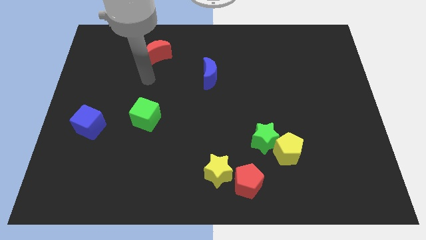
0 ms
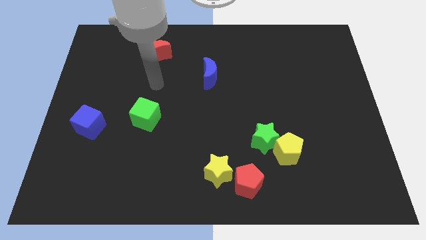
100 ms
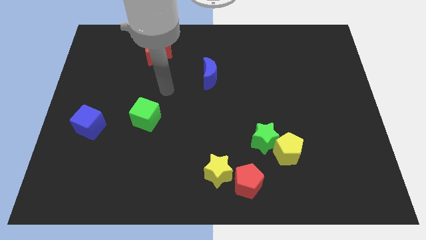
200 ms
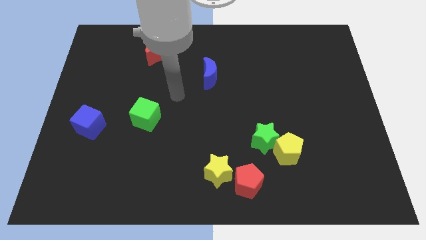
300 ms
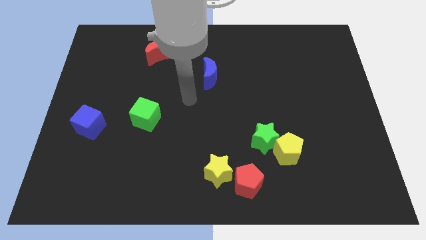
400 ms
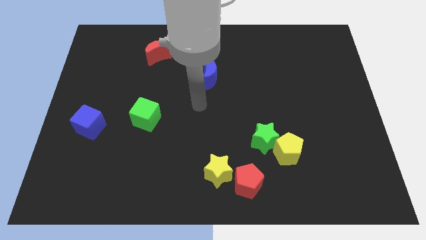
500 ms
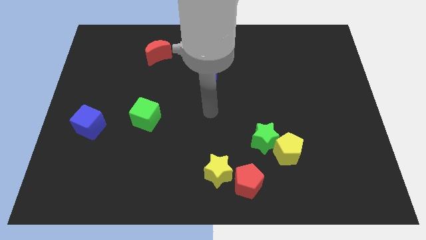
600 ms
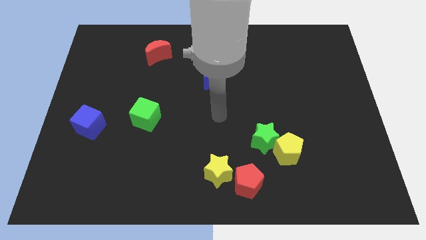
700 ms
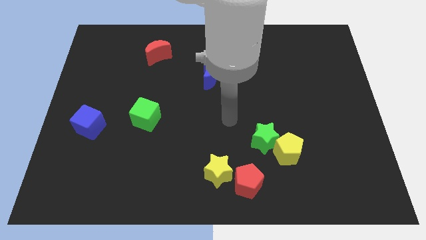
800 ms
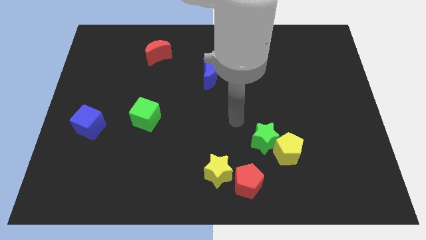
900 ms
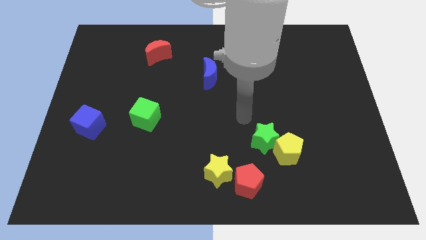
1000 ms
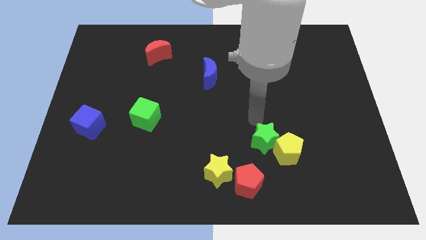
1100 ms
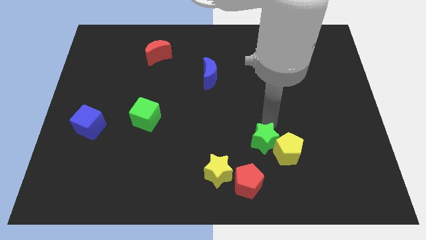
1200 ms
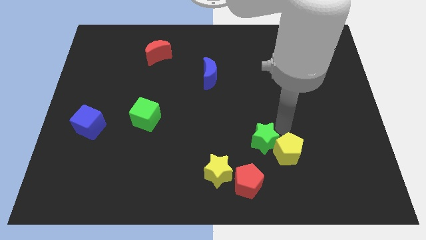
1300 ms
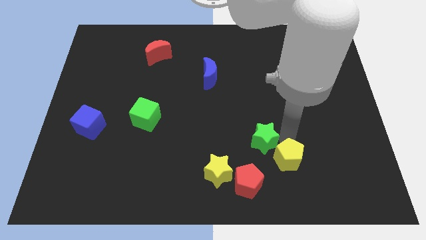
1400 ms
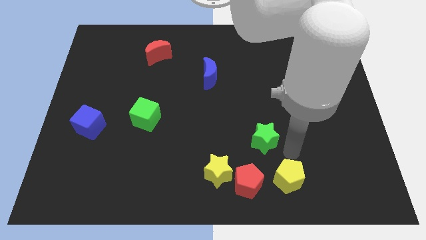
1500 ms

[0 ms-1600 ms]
move the green star away from the yellow pentagon

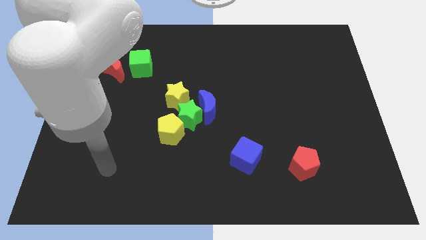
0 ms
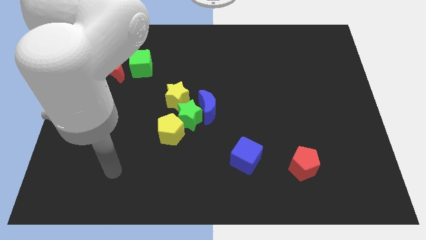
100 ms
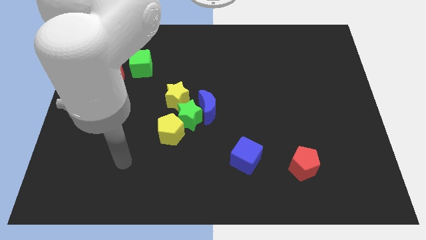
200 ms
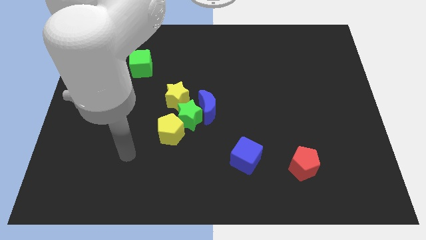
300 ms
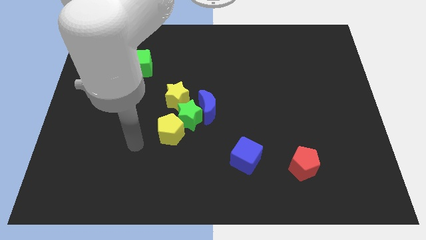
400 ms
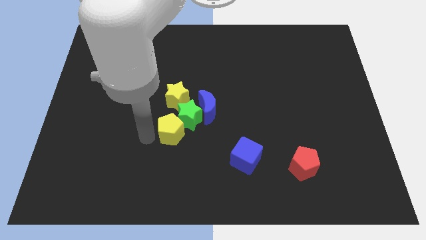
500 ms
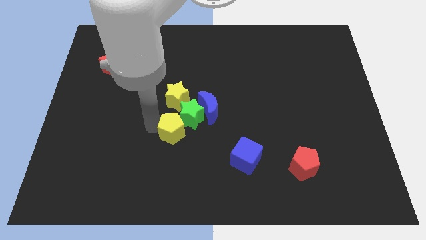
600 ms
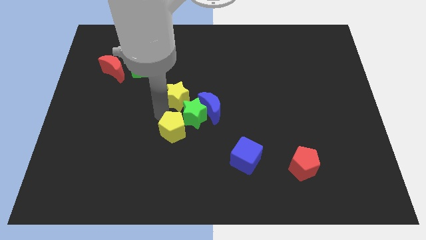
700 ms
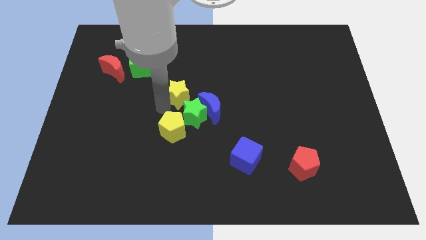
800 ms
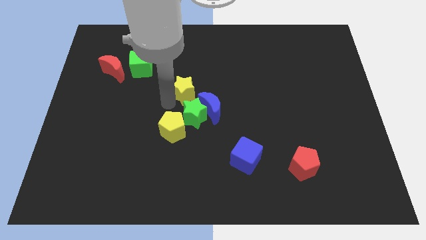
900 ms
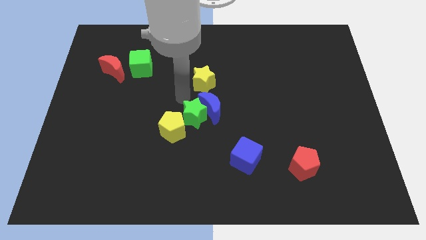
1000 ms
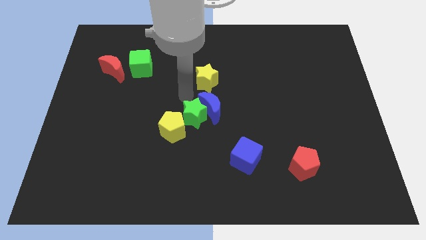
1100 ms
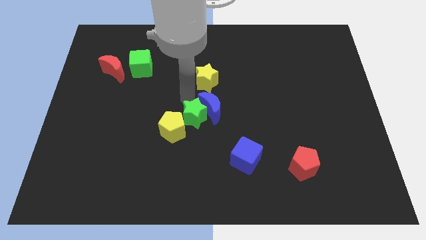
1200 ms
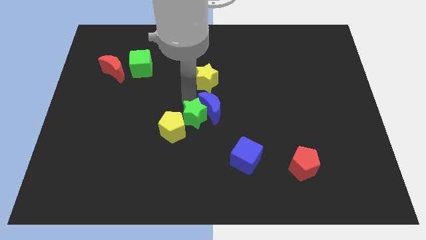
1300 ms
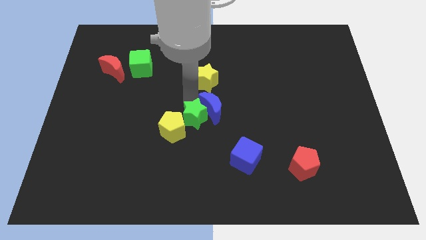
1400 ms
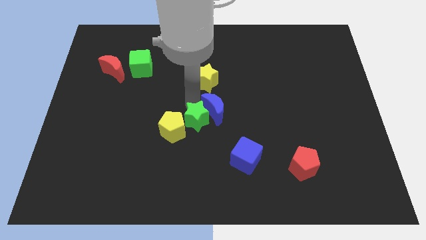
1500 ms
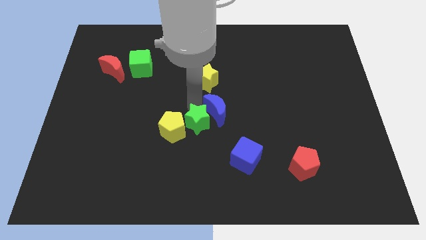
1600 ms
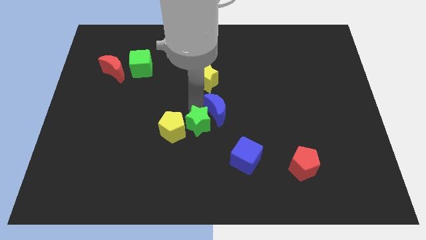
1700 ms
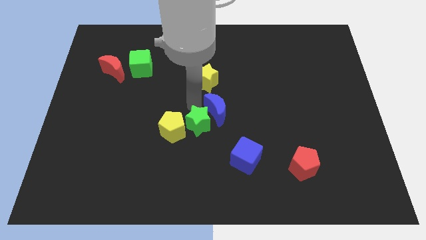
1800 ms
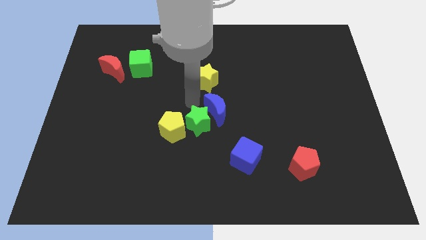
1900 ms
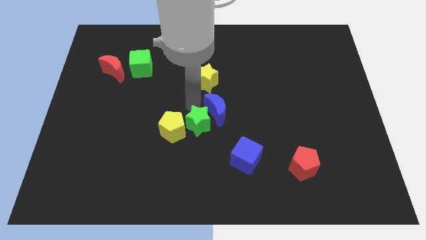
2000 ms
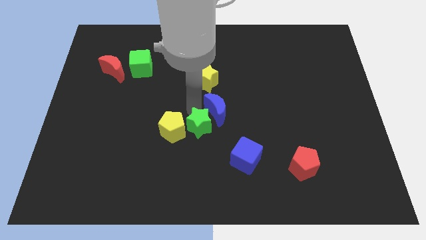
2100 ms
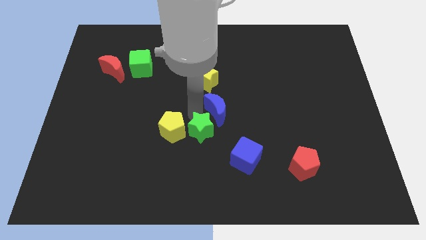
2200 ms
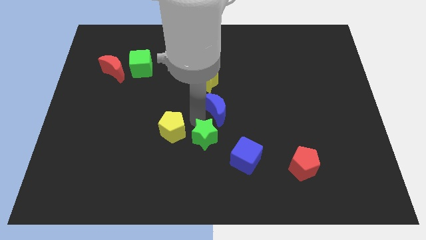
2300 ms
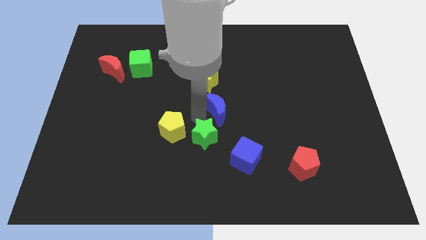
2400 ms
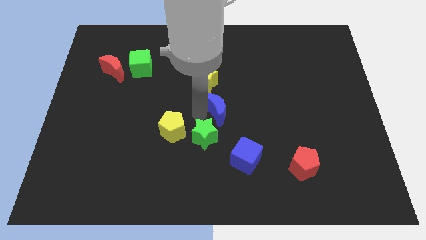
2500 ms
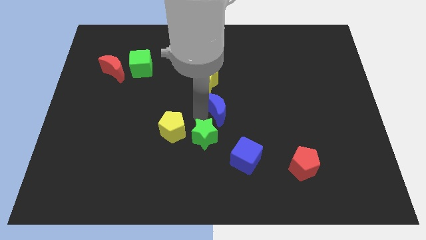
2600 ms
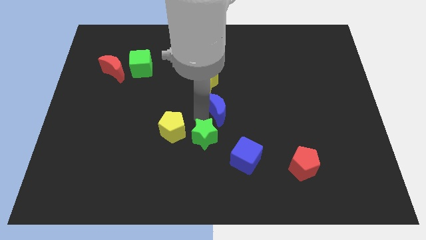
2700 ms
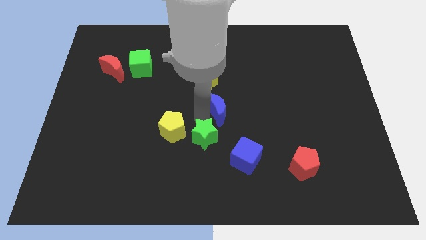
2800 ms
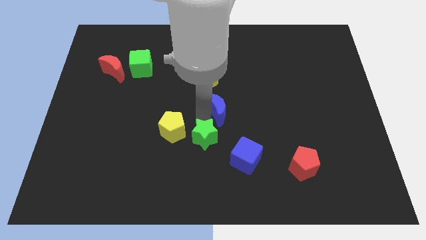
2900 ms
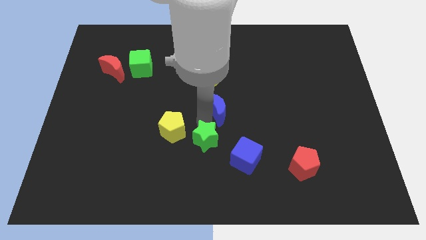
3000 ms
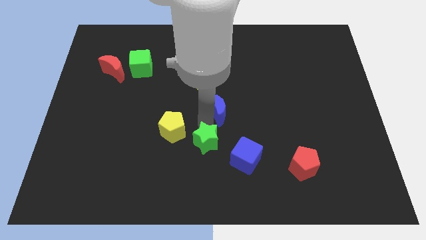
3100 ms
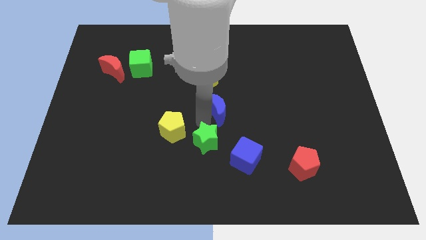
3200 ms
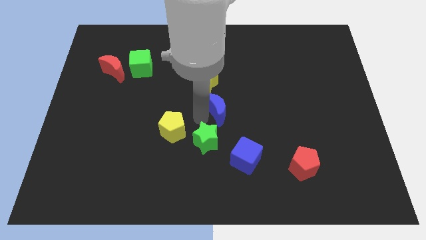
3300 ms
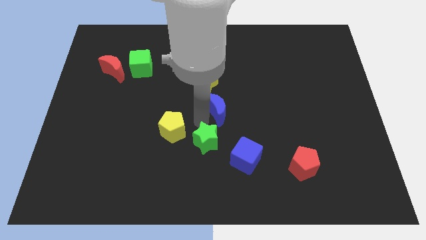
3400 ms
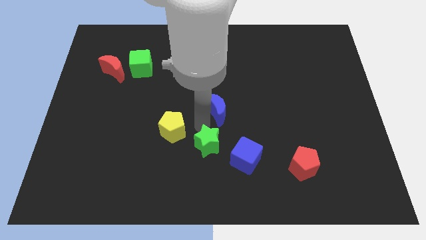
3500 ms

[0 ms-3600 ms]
move the green star away from the blue moon, yellow pentagon, and yellow star

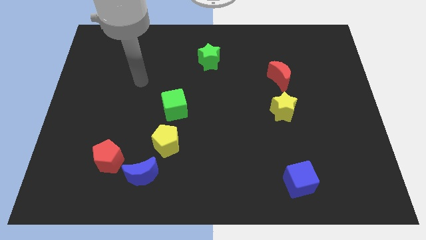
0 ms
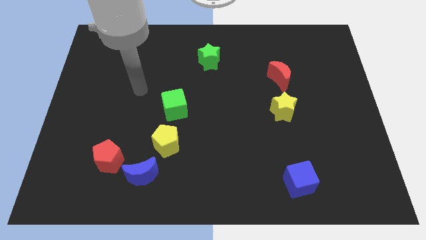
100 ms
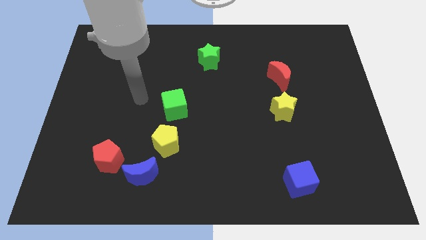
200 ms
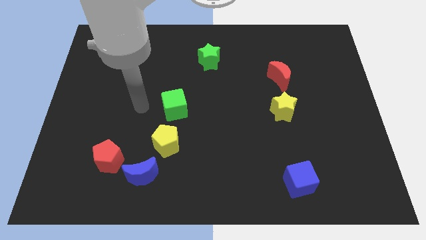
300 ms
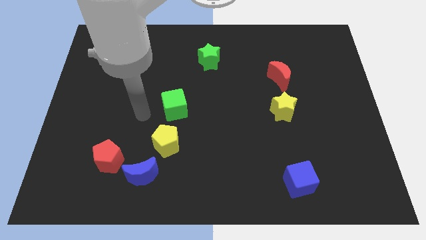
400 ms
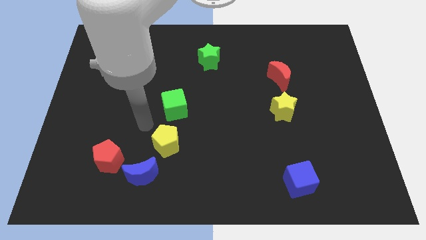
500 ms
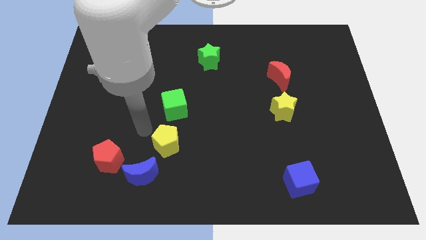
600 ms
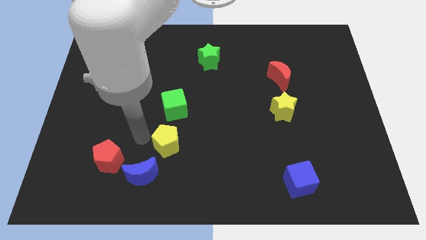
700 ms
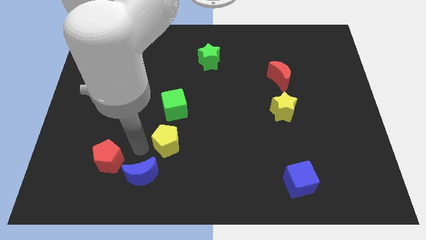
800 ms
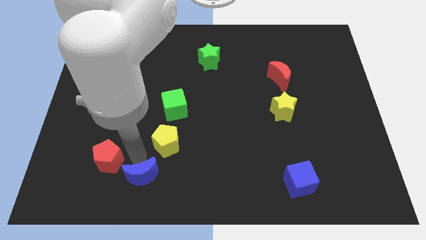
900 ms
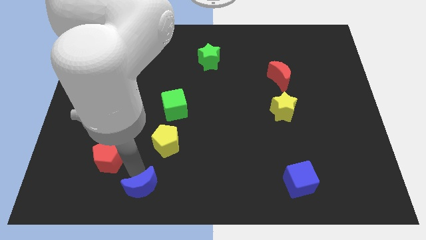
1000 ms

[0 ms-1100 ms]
separate the red pentagon from the blue moon

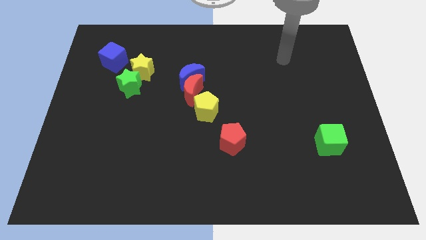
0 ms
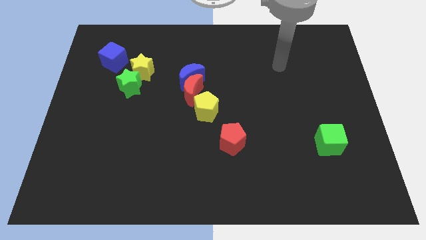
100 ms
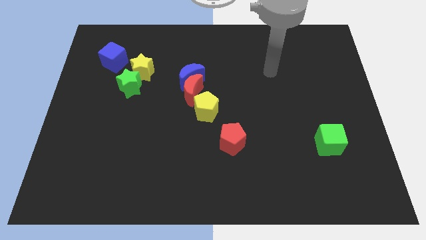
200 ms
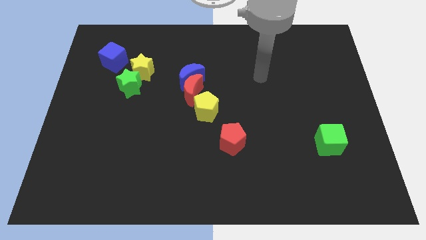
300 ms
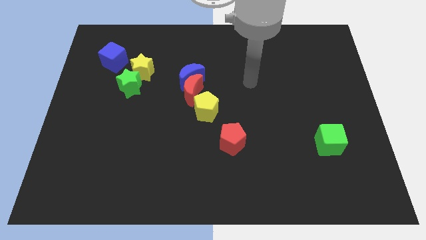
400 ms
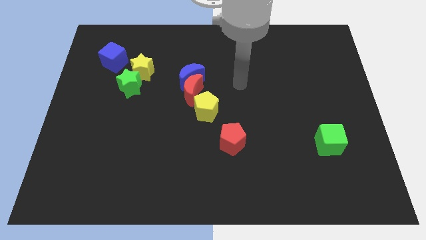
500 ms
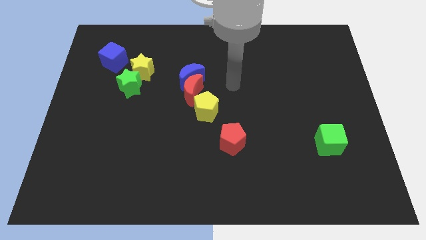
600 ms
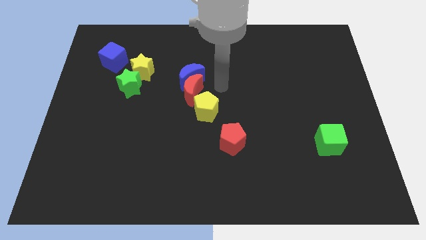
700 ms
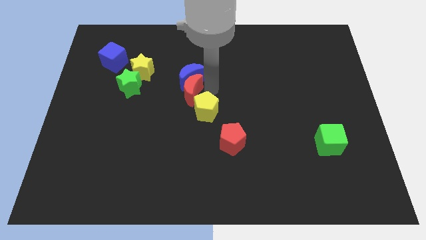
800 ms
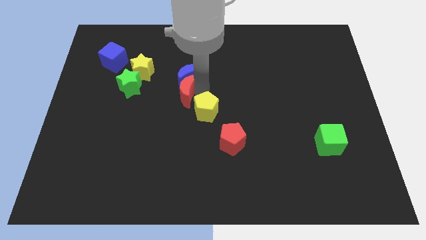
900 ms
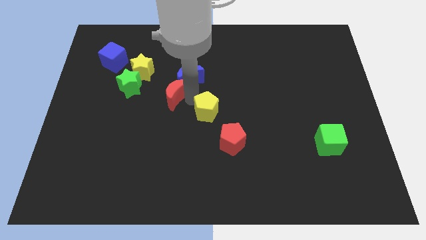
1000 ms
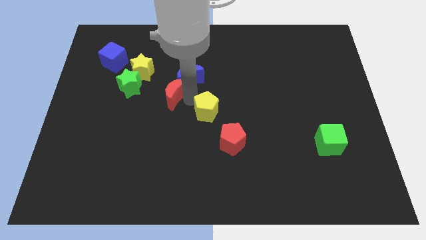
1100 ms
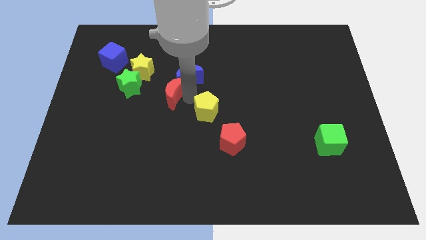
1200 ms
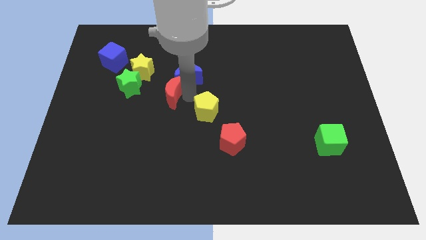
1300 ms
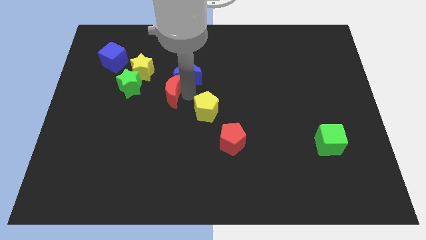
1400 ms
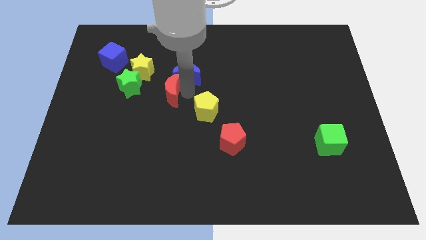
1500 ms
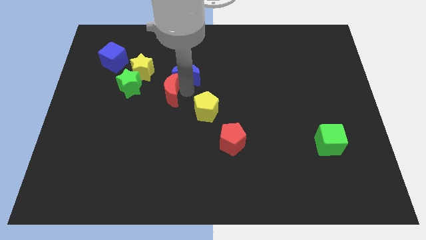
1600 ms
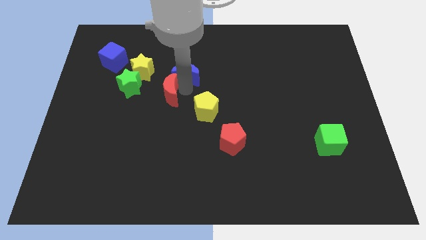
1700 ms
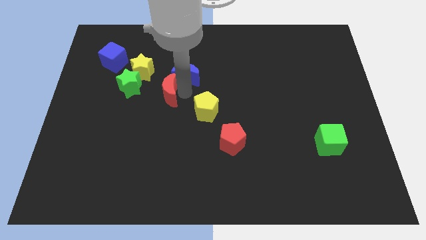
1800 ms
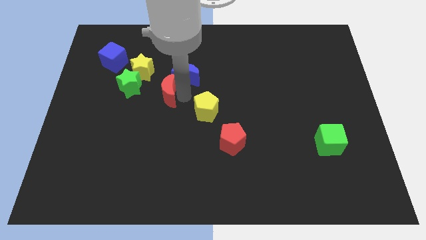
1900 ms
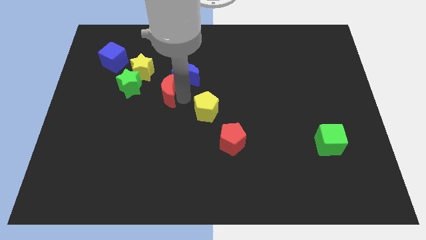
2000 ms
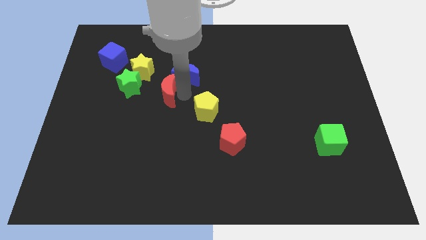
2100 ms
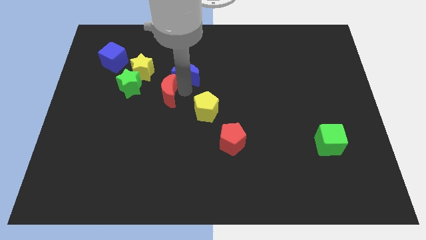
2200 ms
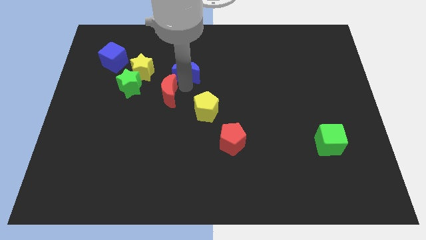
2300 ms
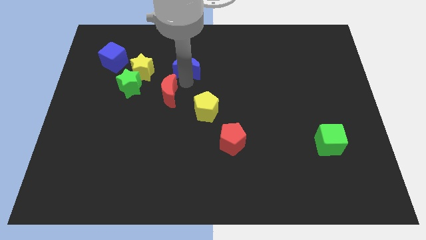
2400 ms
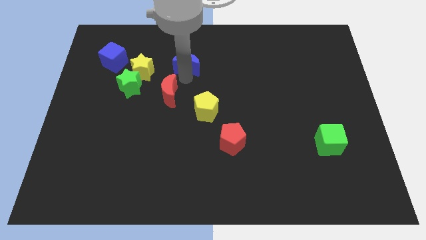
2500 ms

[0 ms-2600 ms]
move the blue moon away from the red moon

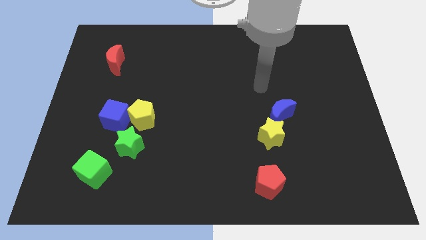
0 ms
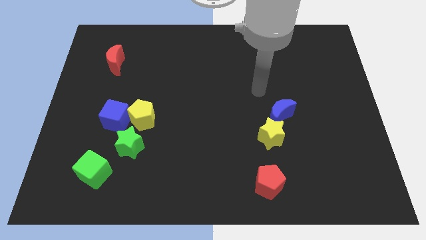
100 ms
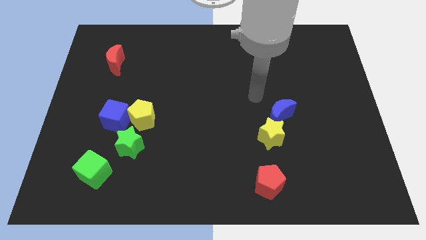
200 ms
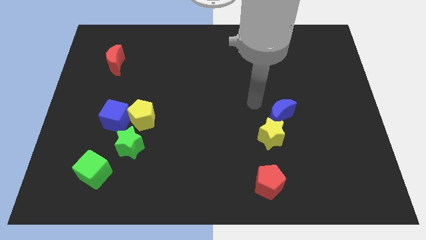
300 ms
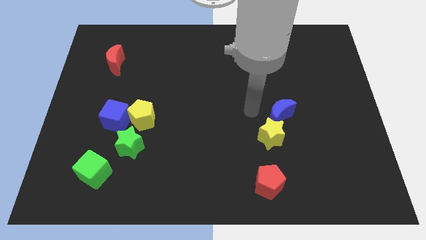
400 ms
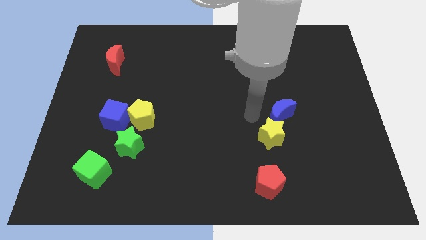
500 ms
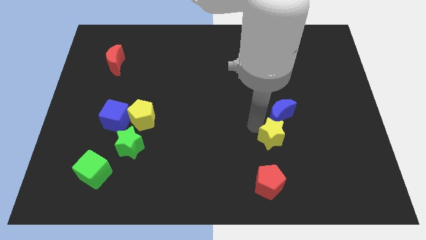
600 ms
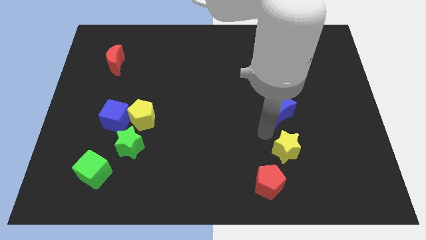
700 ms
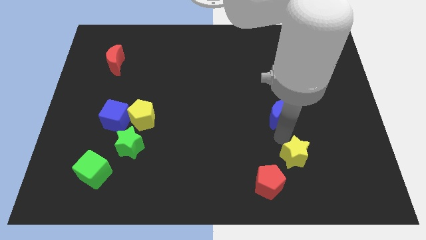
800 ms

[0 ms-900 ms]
separate the blue moon from the yellow star
